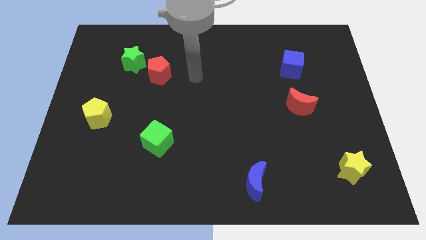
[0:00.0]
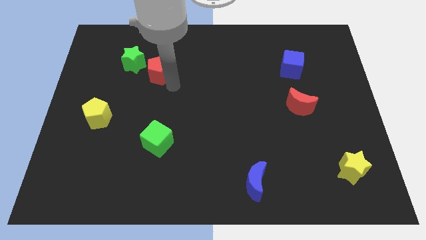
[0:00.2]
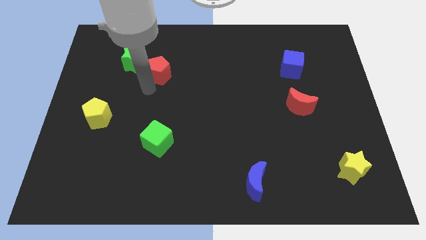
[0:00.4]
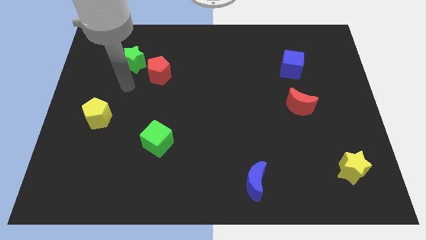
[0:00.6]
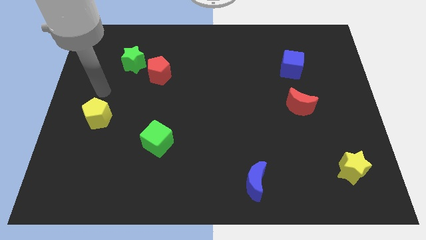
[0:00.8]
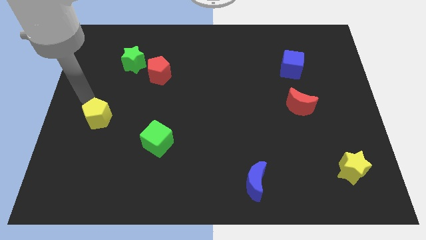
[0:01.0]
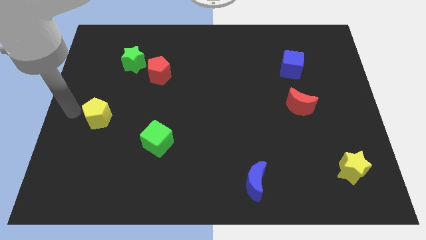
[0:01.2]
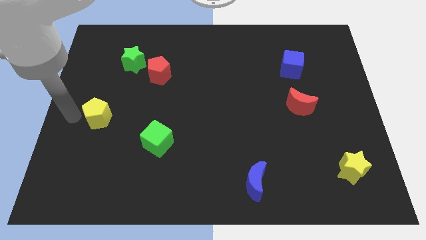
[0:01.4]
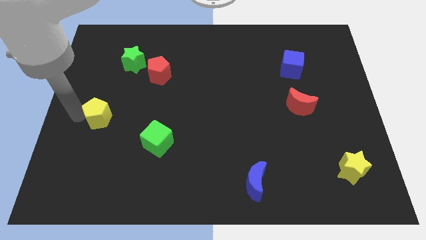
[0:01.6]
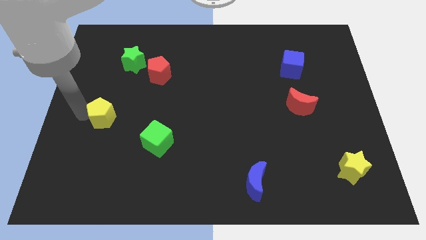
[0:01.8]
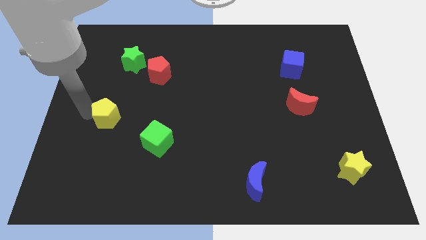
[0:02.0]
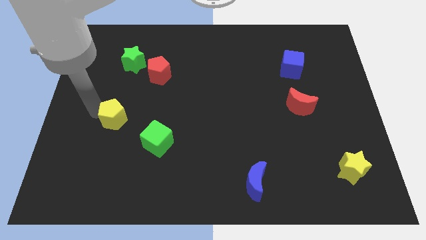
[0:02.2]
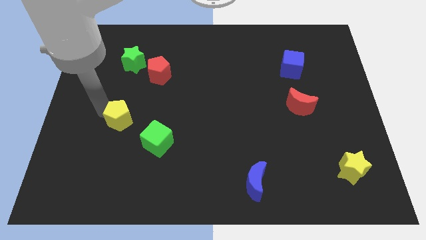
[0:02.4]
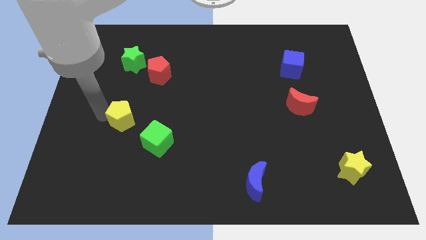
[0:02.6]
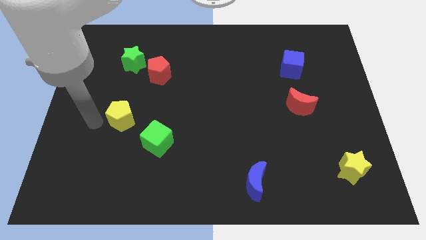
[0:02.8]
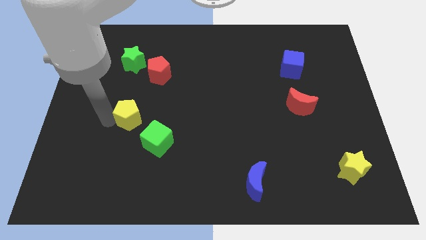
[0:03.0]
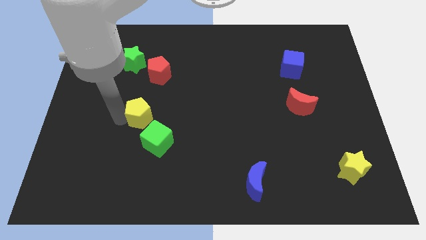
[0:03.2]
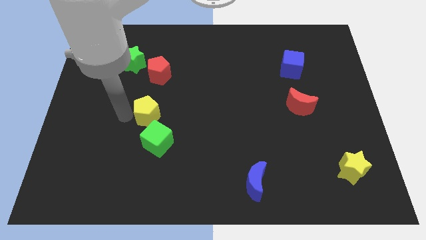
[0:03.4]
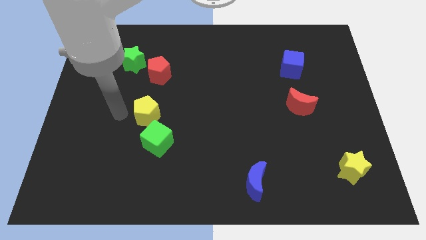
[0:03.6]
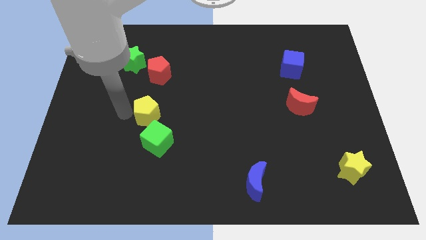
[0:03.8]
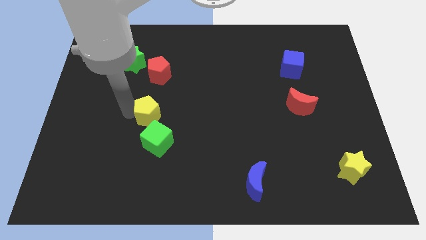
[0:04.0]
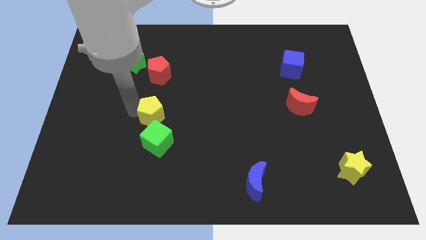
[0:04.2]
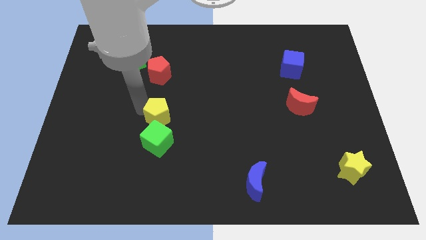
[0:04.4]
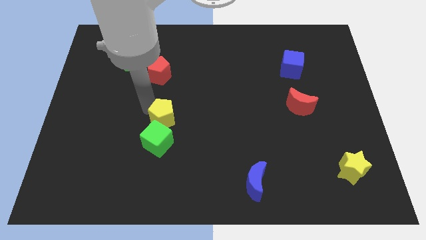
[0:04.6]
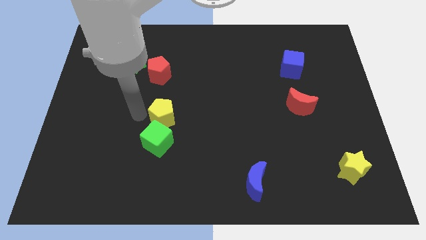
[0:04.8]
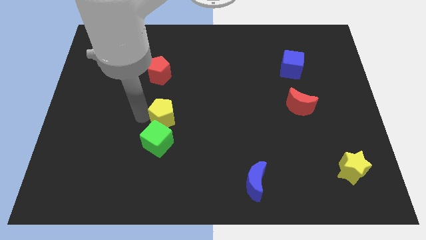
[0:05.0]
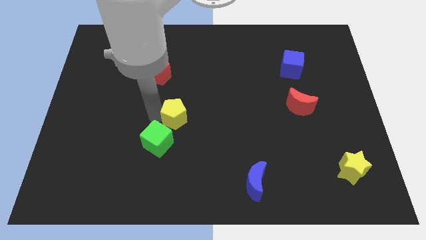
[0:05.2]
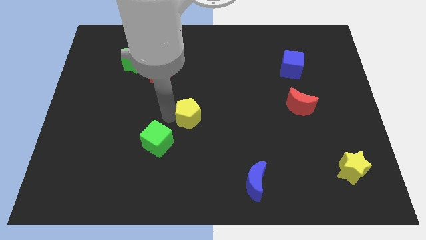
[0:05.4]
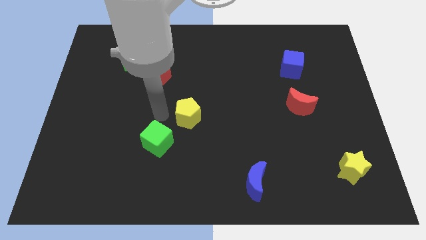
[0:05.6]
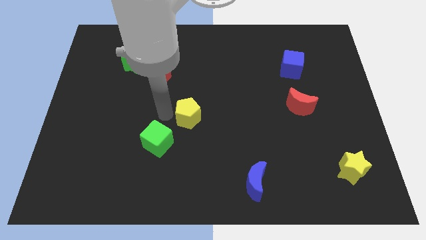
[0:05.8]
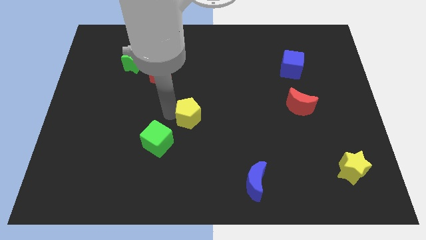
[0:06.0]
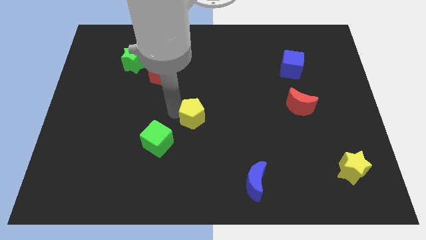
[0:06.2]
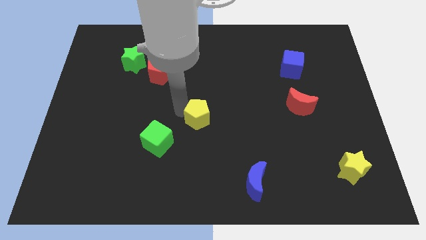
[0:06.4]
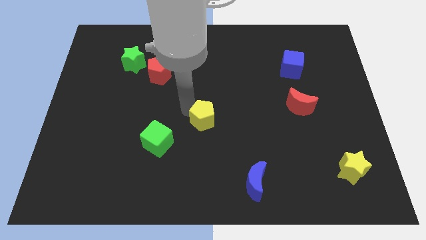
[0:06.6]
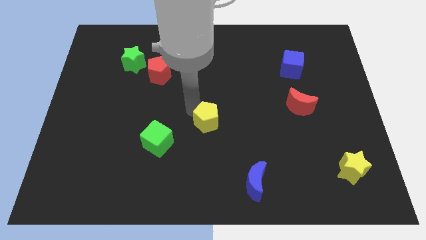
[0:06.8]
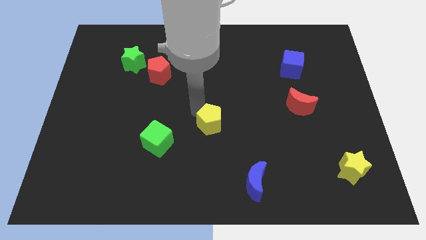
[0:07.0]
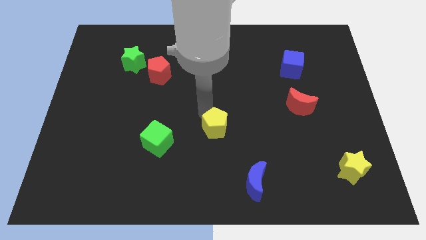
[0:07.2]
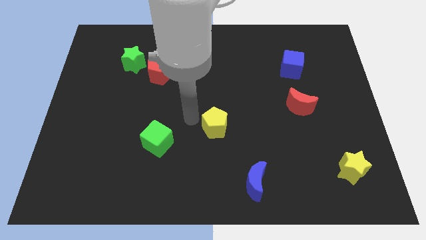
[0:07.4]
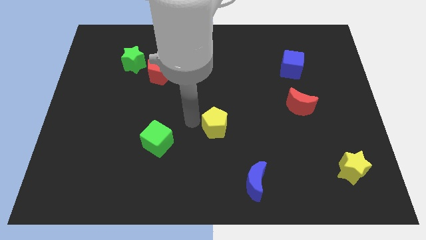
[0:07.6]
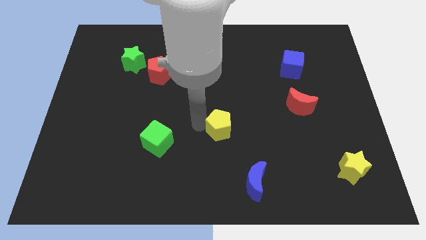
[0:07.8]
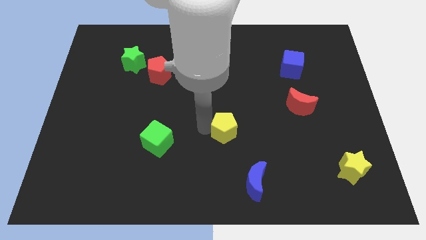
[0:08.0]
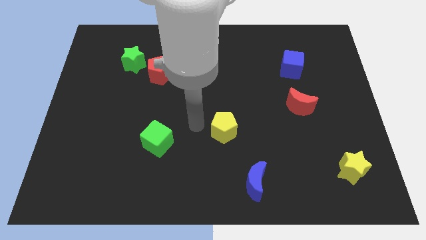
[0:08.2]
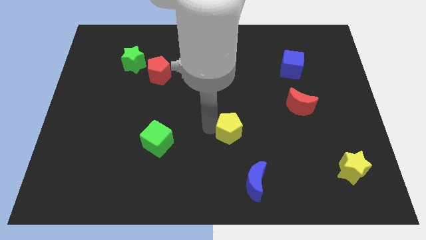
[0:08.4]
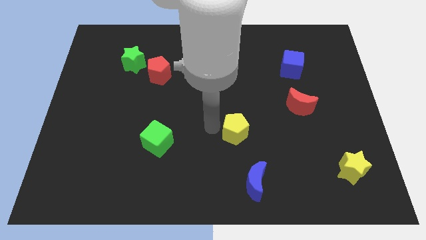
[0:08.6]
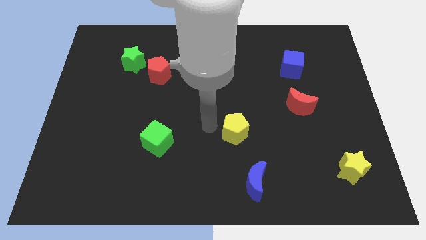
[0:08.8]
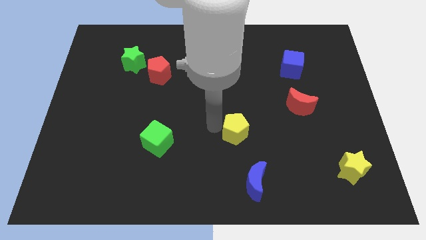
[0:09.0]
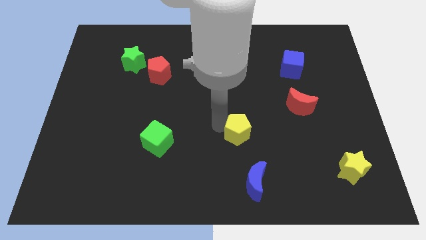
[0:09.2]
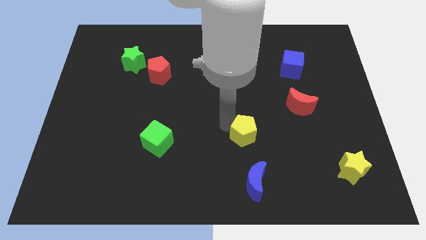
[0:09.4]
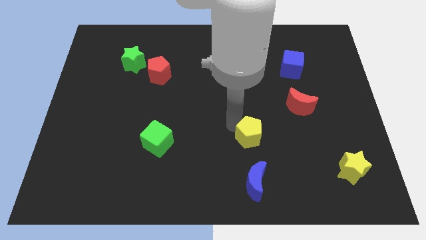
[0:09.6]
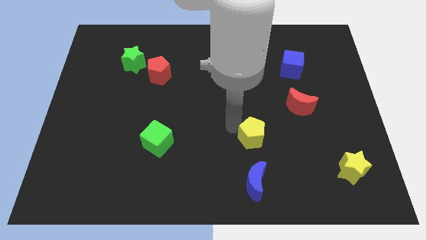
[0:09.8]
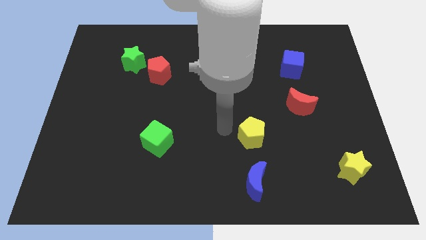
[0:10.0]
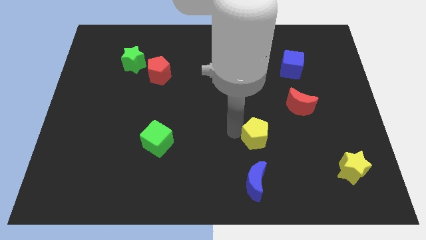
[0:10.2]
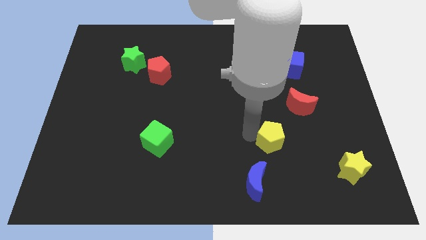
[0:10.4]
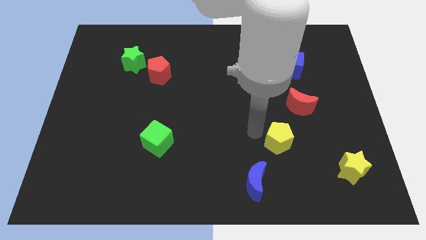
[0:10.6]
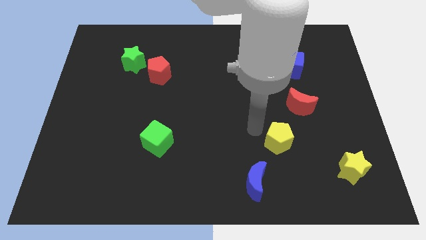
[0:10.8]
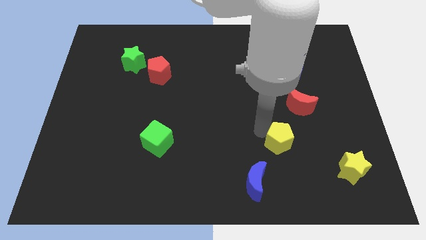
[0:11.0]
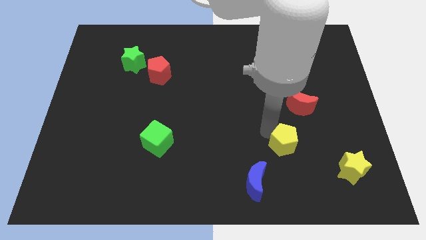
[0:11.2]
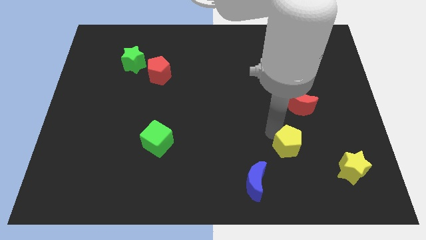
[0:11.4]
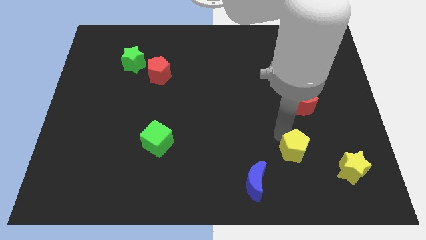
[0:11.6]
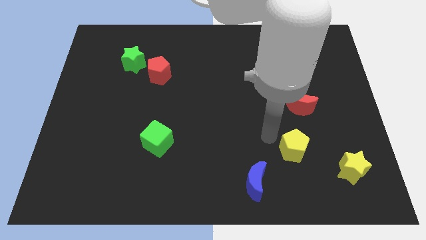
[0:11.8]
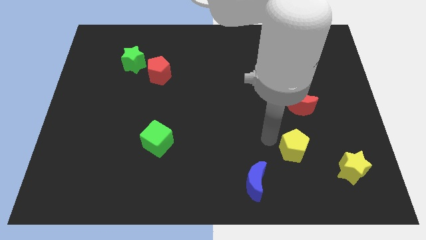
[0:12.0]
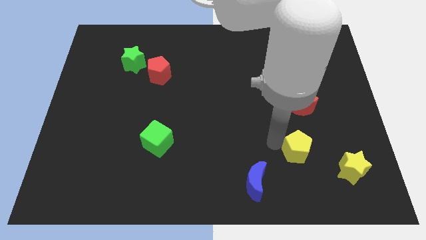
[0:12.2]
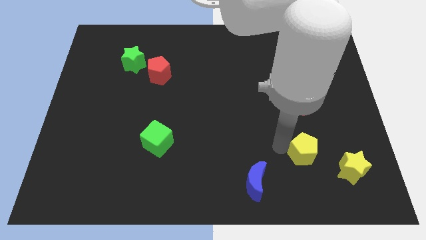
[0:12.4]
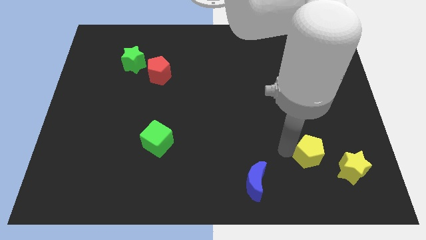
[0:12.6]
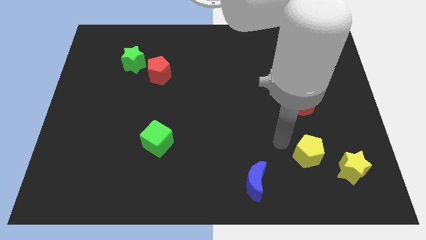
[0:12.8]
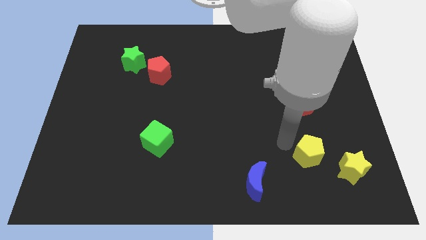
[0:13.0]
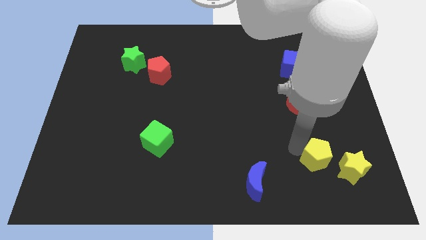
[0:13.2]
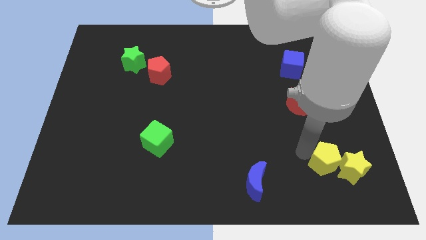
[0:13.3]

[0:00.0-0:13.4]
put the yellow pentagon next to the yellow star
